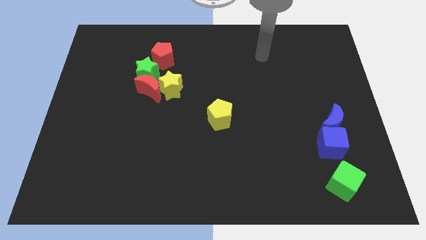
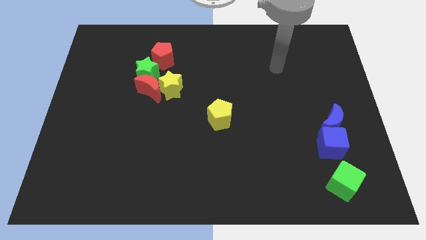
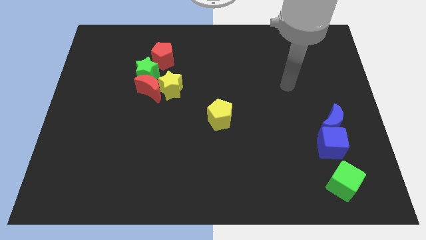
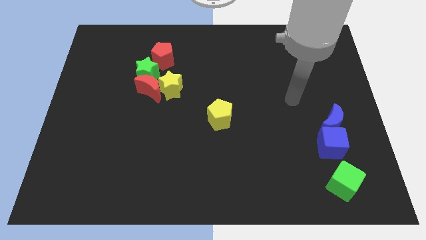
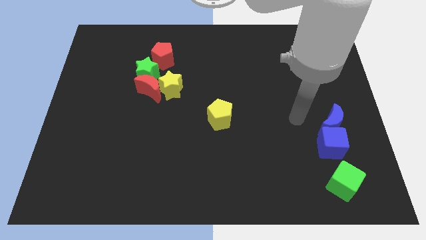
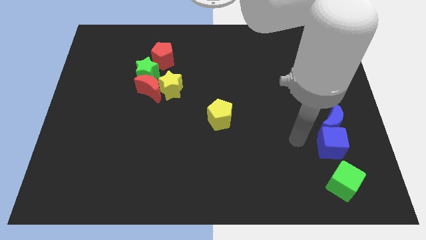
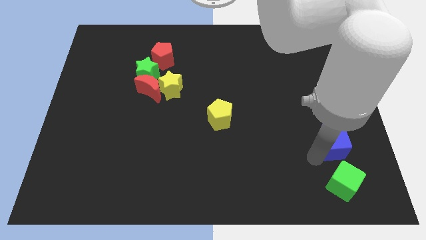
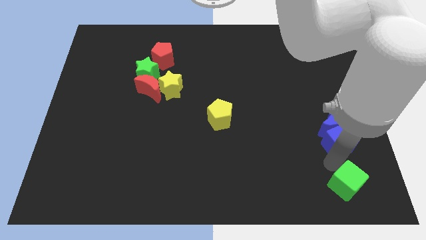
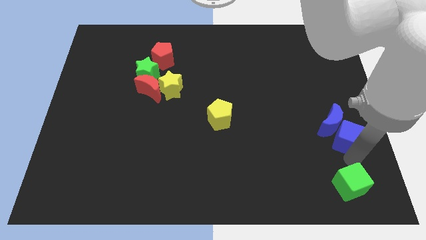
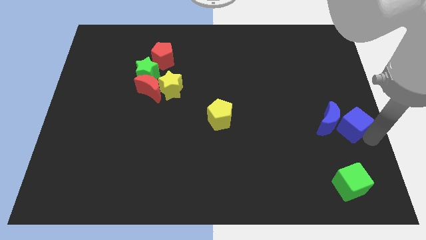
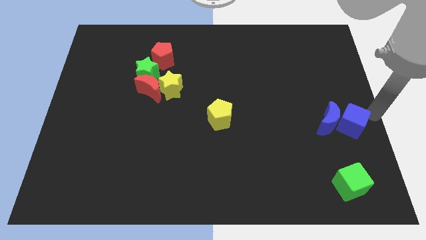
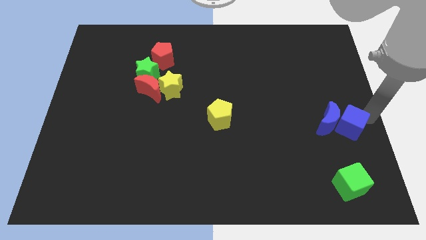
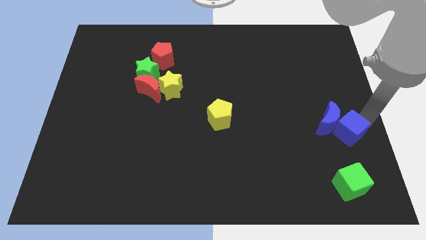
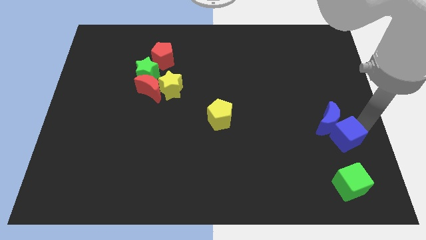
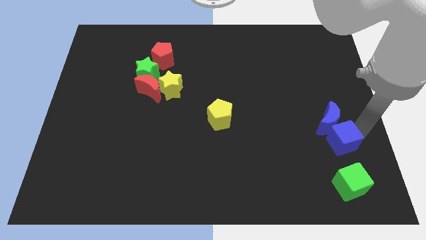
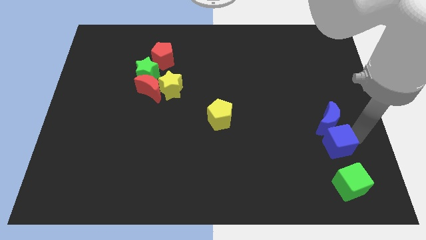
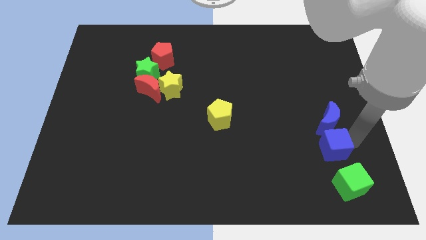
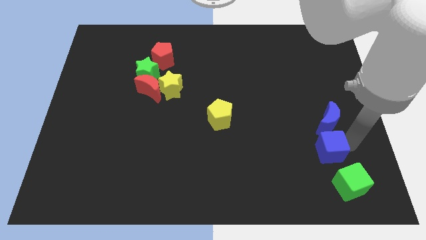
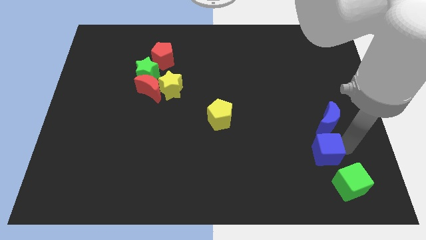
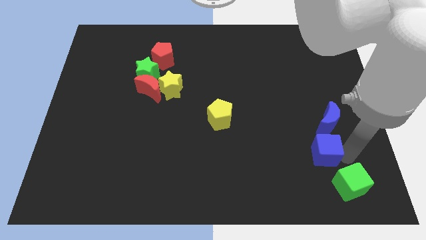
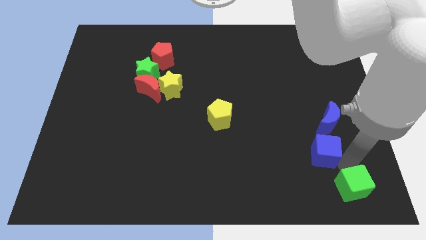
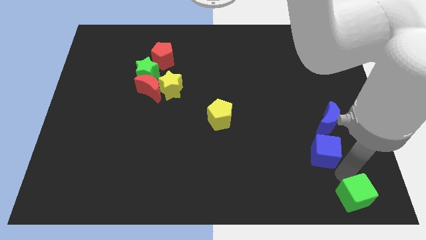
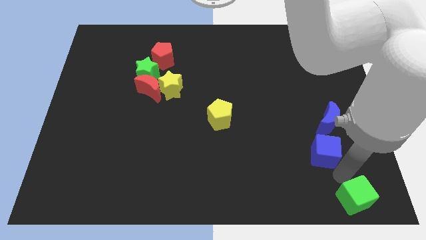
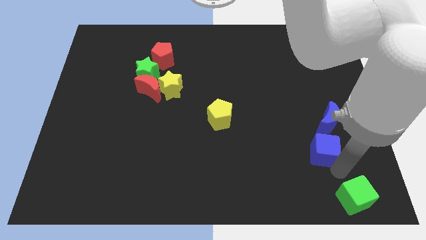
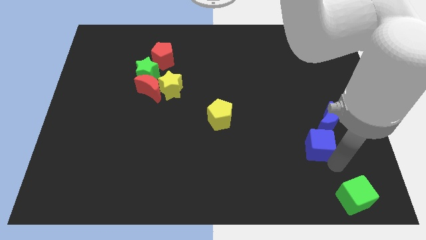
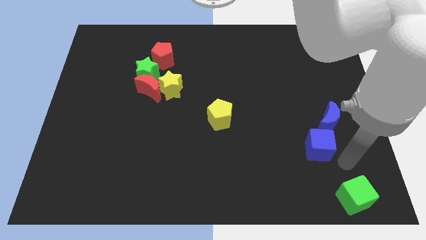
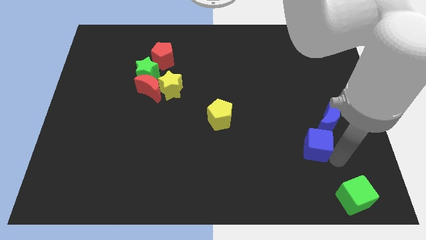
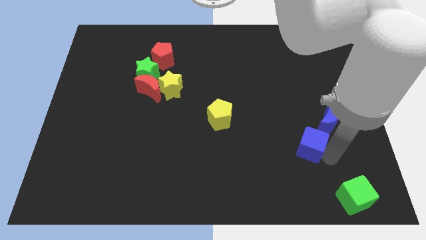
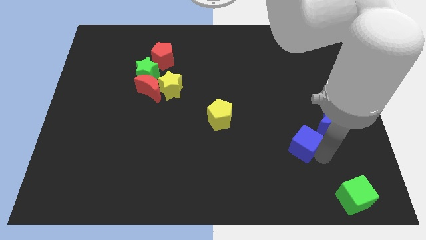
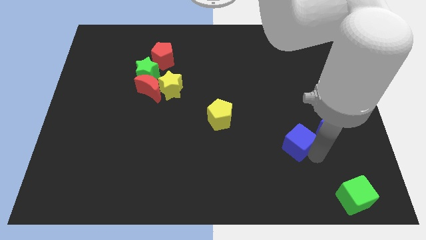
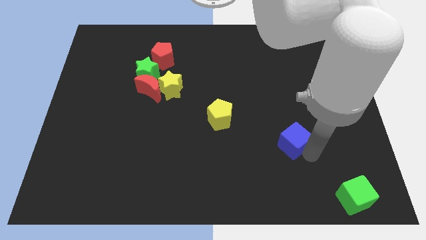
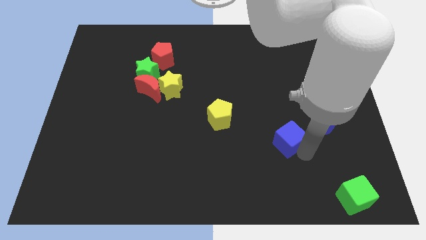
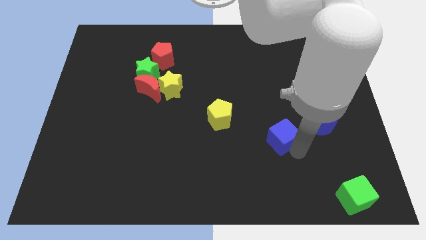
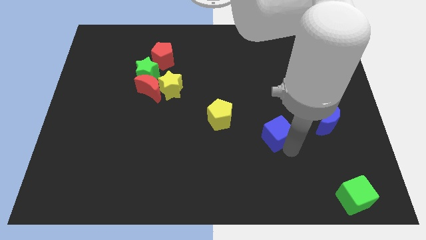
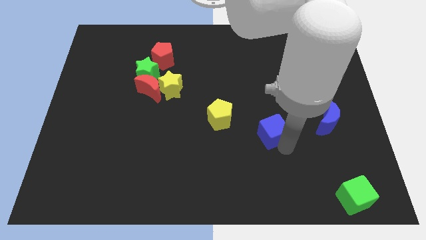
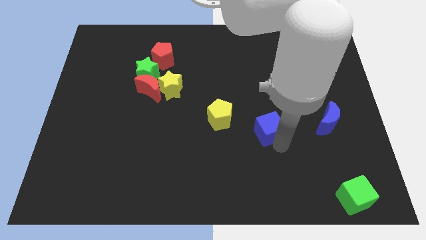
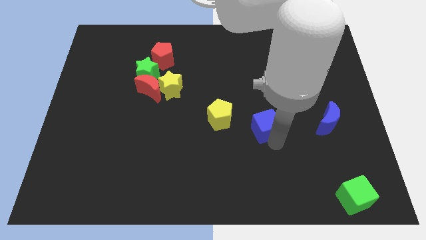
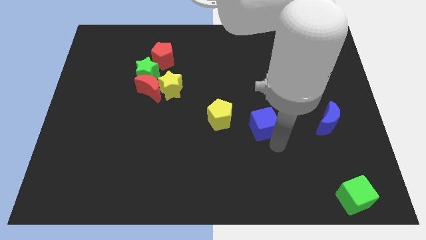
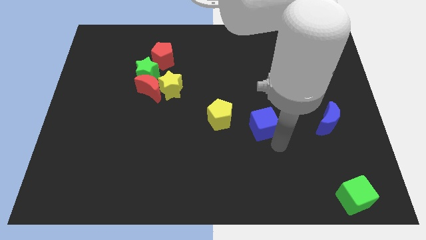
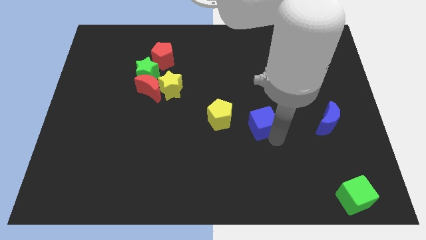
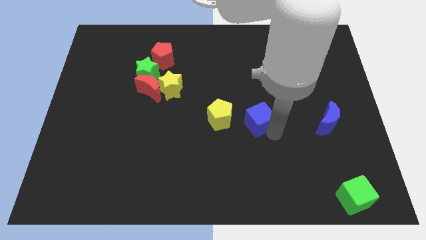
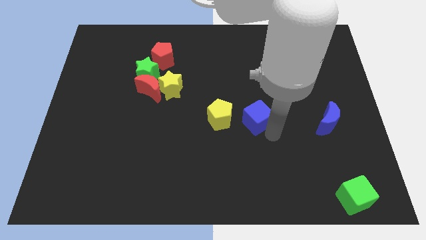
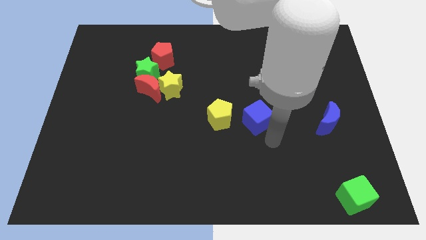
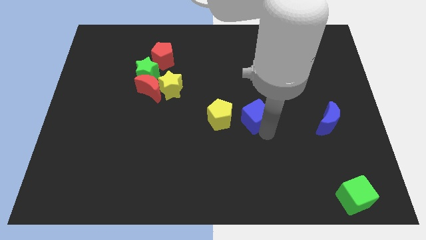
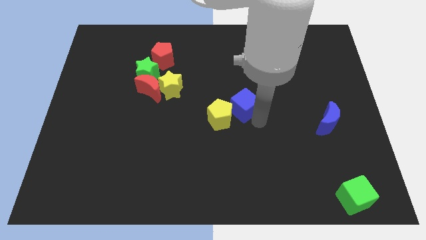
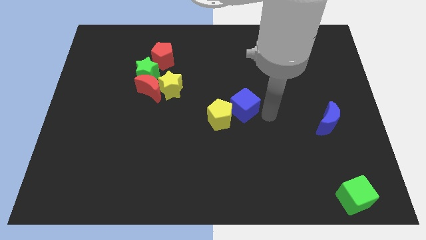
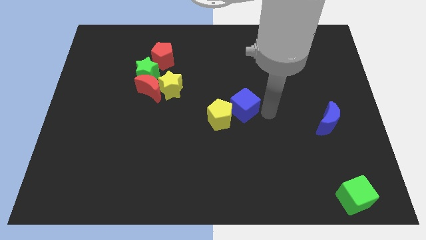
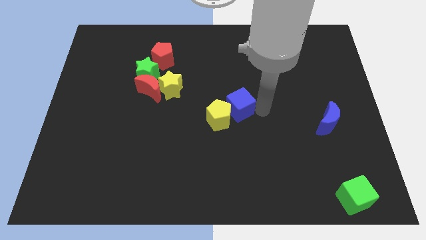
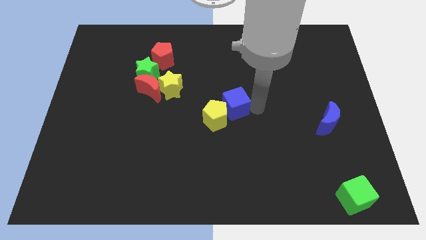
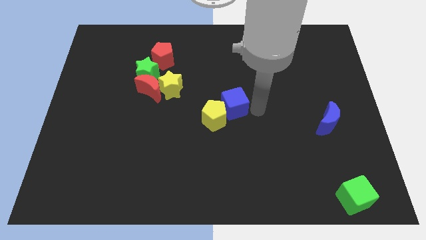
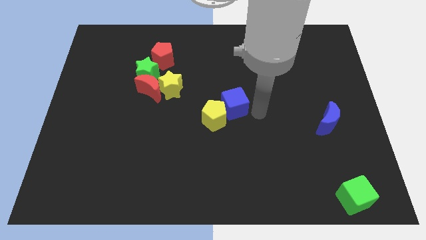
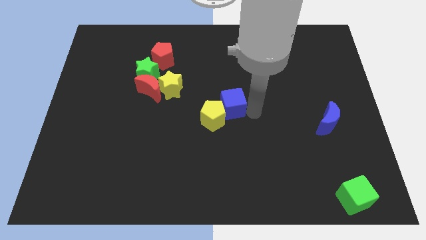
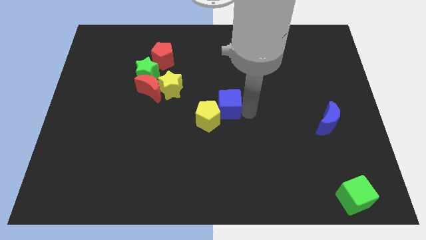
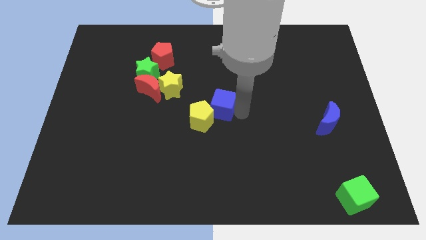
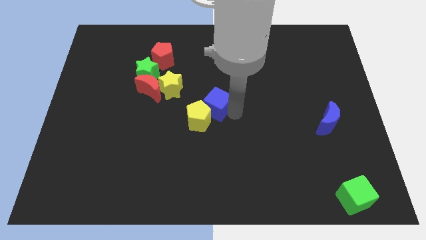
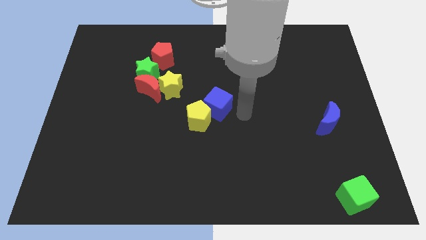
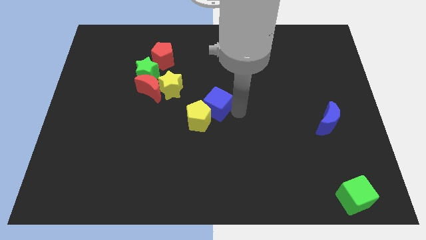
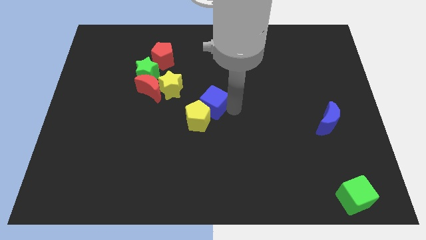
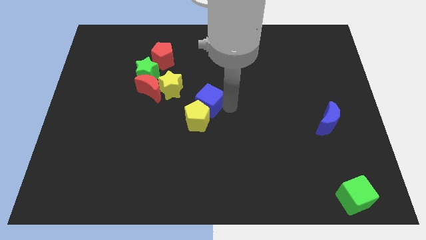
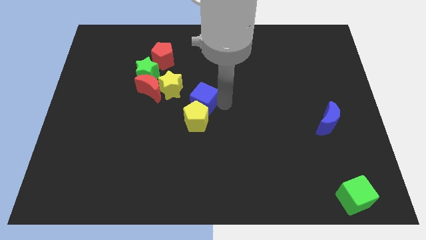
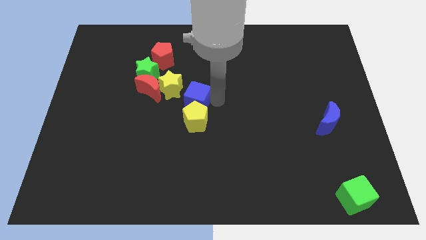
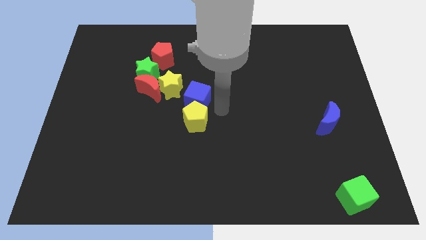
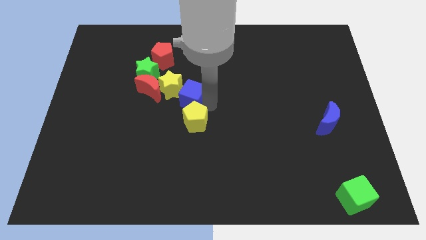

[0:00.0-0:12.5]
push the blue cube towards the yellow star
